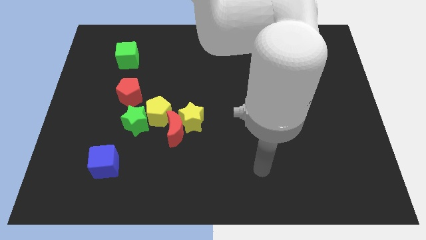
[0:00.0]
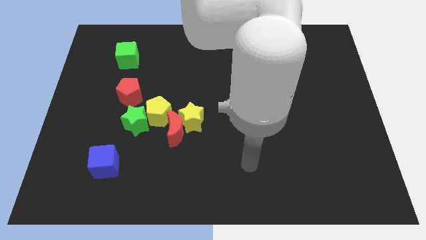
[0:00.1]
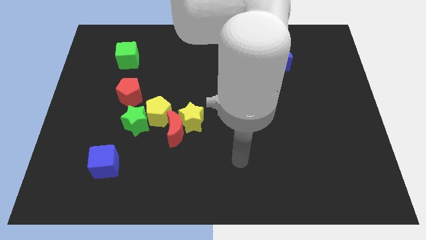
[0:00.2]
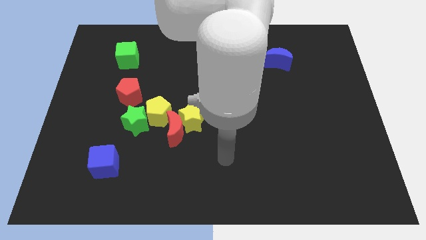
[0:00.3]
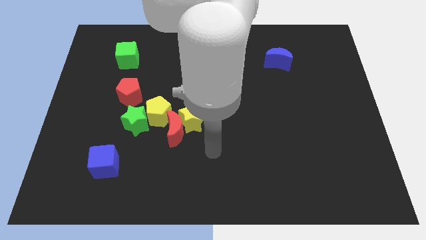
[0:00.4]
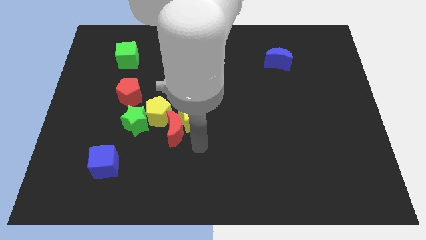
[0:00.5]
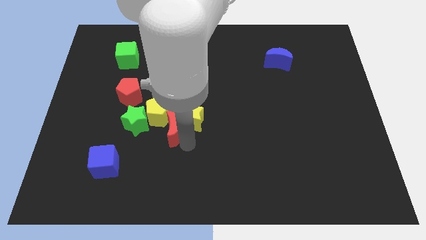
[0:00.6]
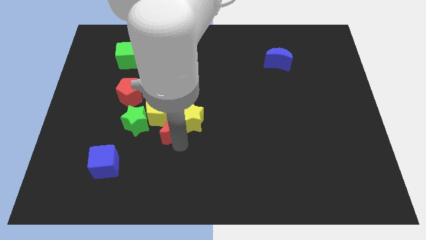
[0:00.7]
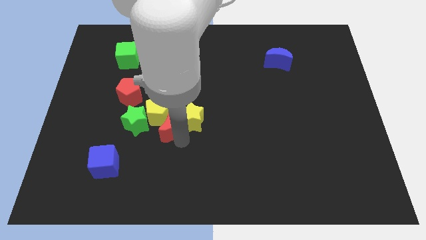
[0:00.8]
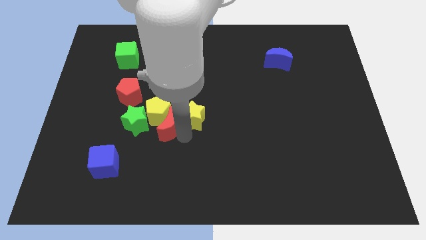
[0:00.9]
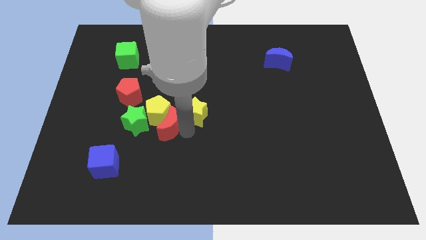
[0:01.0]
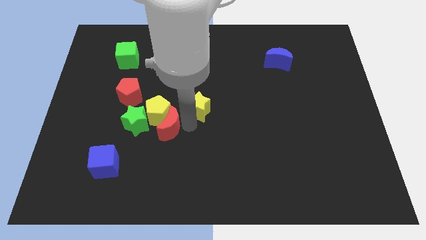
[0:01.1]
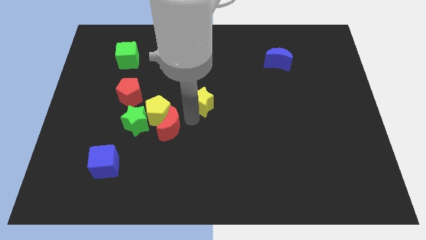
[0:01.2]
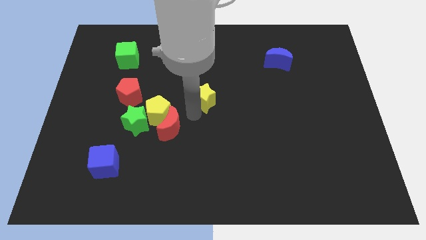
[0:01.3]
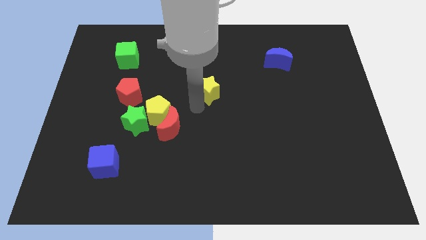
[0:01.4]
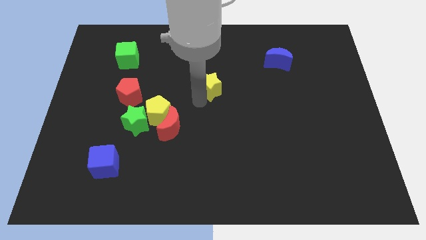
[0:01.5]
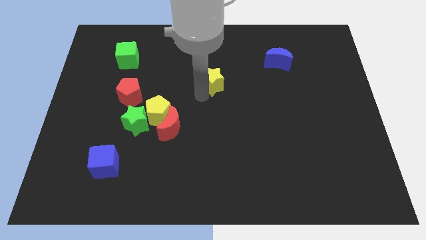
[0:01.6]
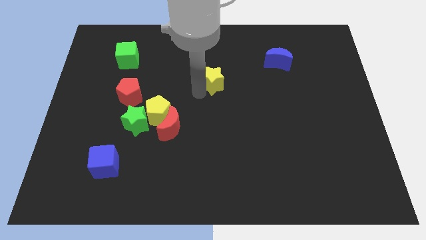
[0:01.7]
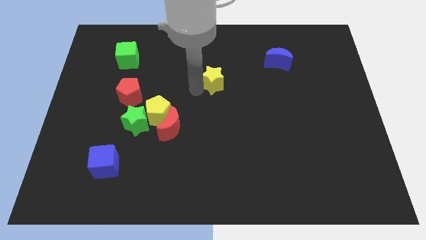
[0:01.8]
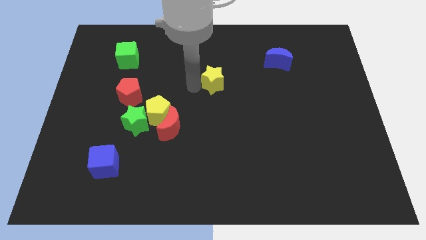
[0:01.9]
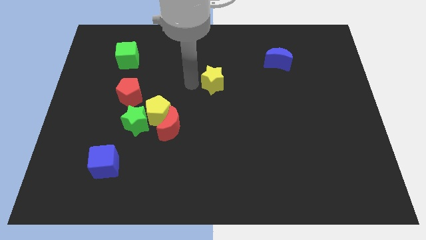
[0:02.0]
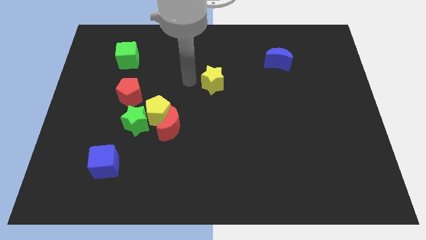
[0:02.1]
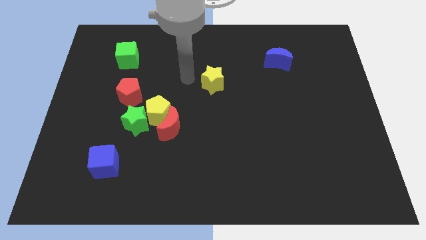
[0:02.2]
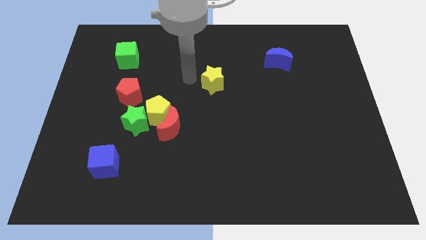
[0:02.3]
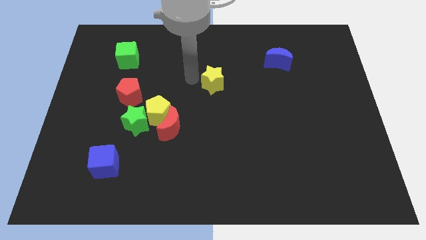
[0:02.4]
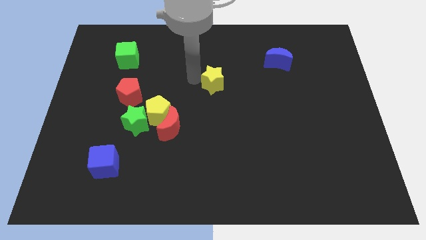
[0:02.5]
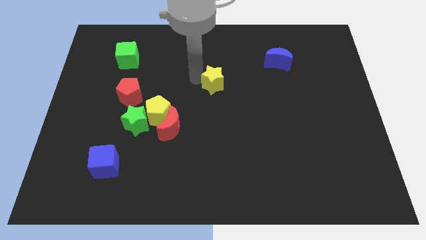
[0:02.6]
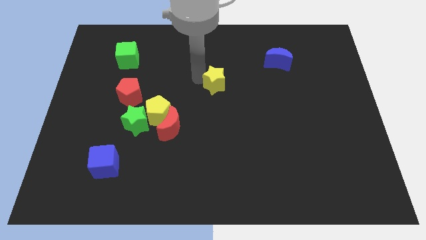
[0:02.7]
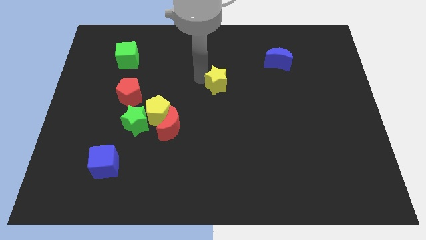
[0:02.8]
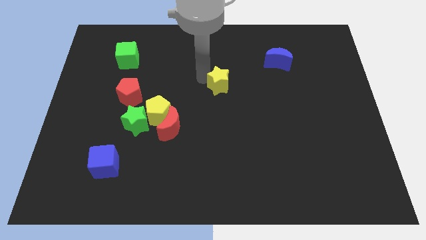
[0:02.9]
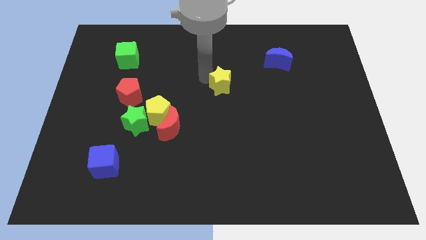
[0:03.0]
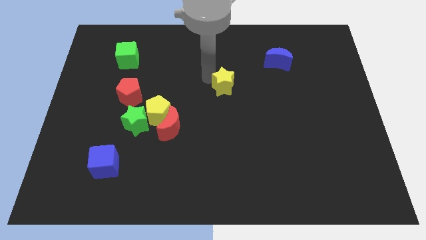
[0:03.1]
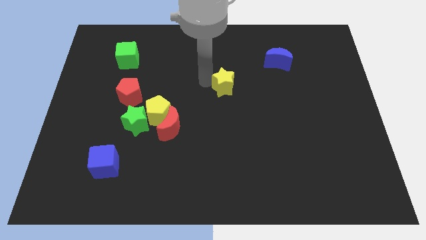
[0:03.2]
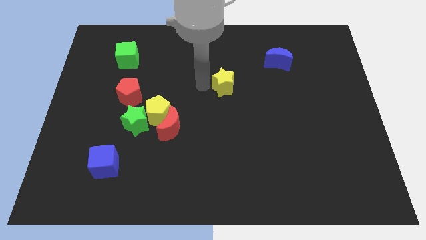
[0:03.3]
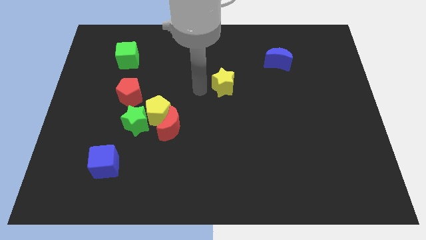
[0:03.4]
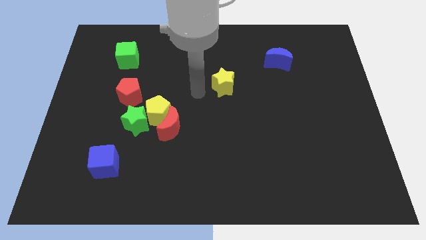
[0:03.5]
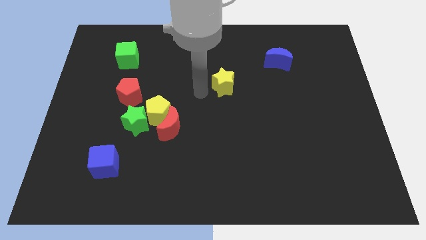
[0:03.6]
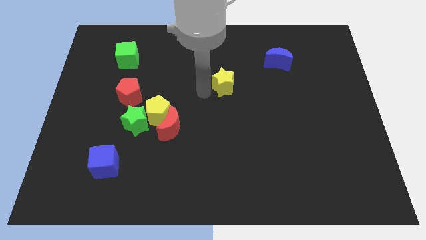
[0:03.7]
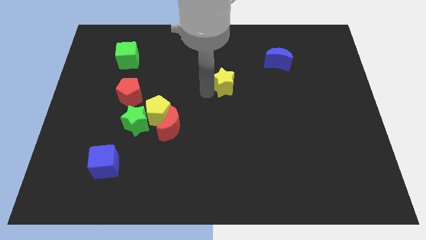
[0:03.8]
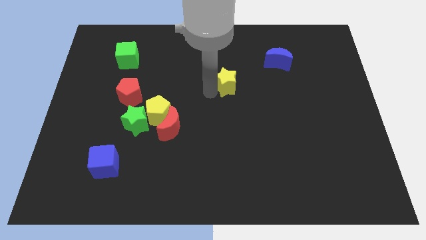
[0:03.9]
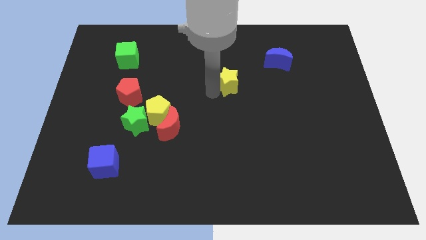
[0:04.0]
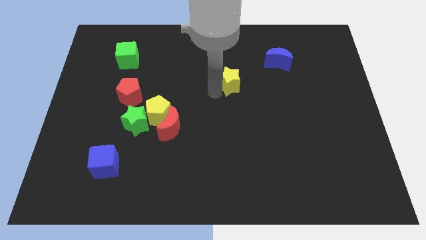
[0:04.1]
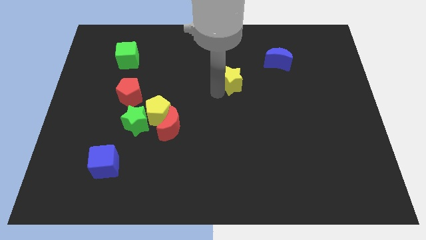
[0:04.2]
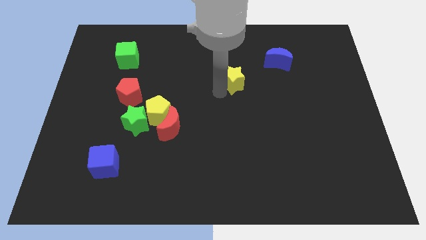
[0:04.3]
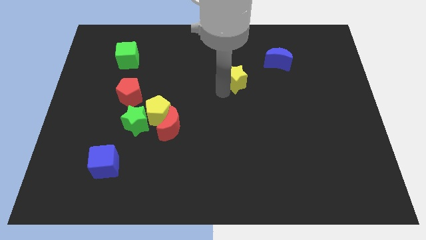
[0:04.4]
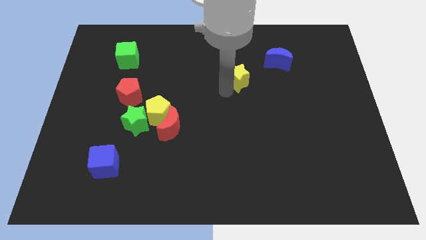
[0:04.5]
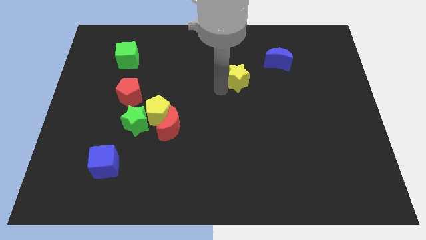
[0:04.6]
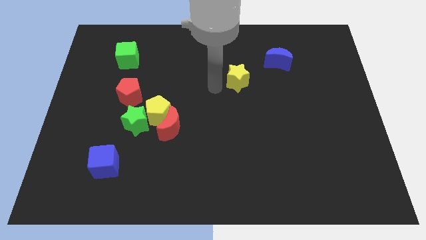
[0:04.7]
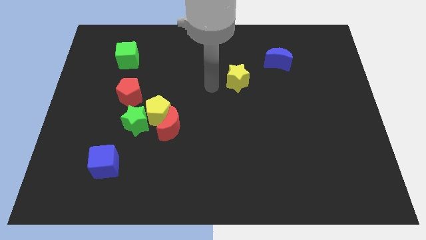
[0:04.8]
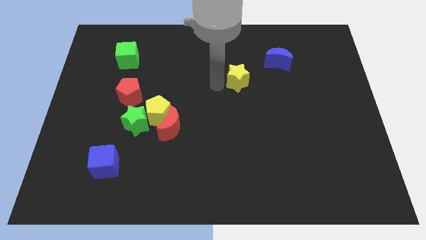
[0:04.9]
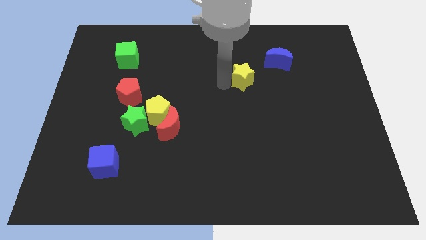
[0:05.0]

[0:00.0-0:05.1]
put the yellow star to the bottom left of the blue moon

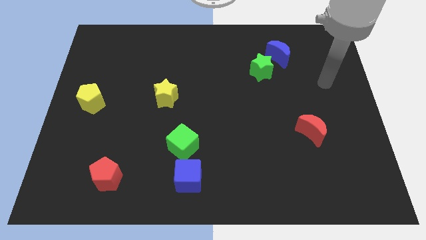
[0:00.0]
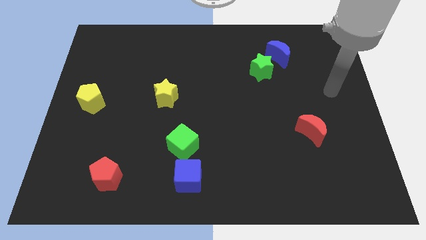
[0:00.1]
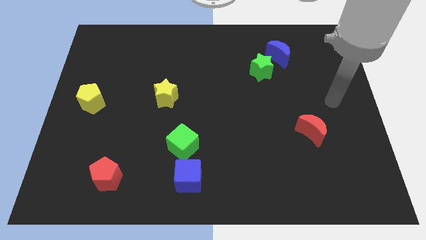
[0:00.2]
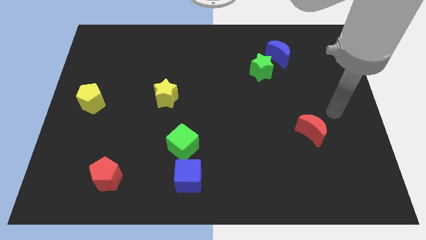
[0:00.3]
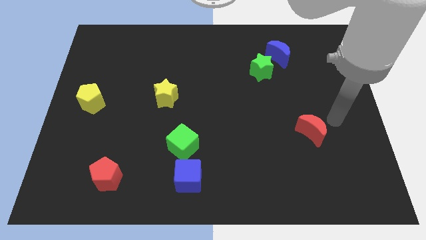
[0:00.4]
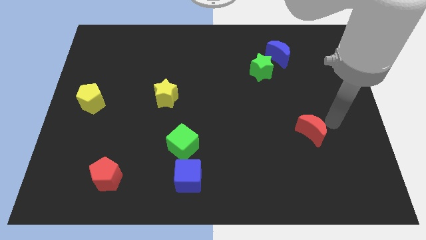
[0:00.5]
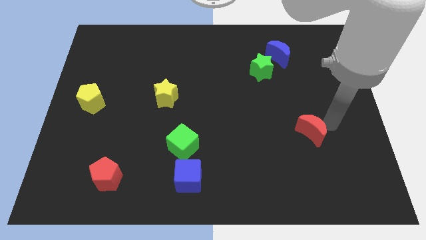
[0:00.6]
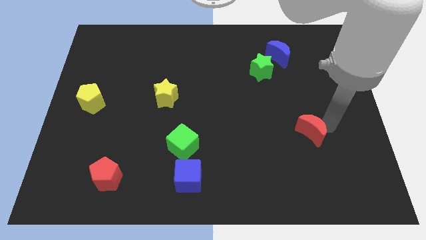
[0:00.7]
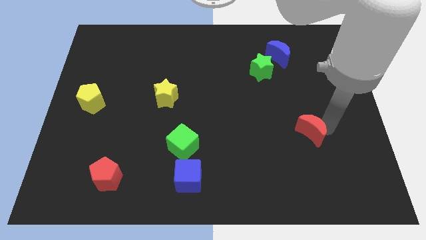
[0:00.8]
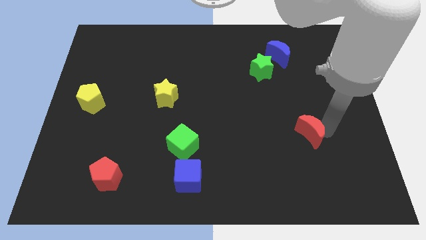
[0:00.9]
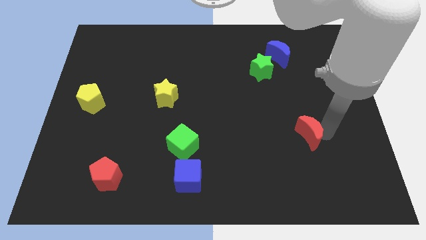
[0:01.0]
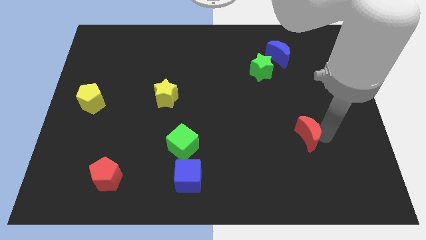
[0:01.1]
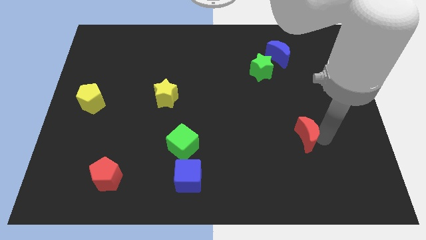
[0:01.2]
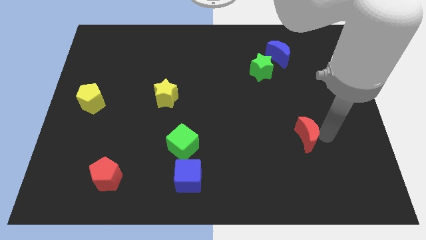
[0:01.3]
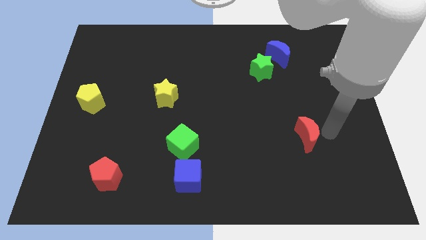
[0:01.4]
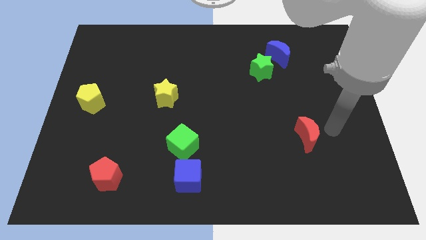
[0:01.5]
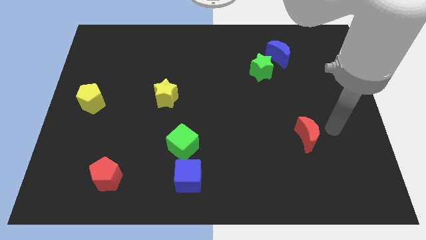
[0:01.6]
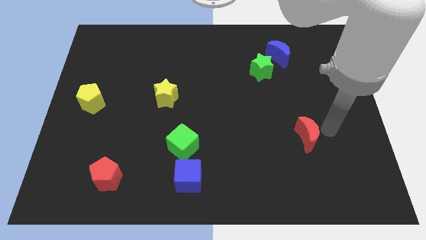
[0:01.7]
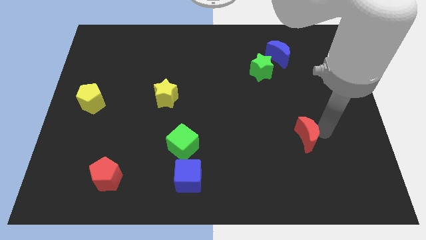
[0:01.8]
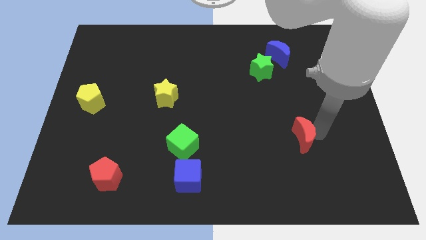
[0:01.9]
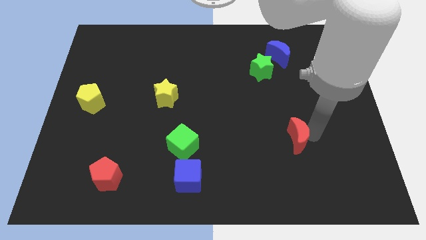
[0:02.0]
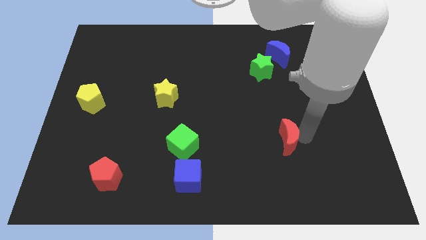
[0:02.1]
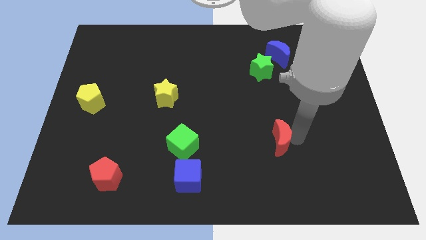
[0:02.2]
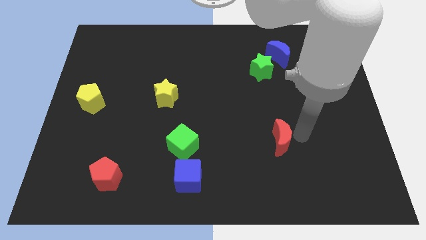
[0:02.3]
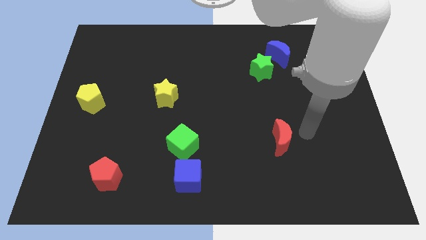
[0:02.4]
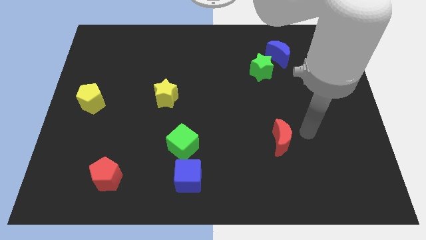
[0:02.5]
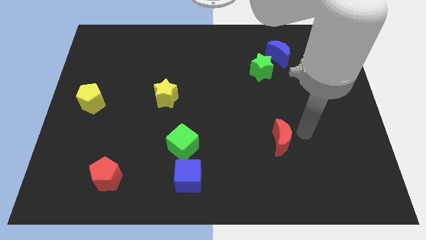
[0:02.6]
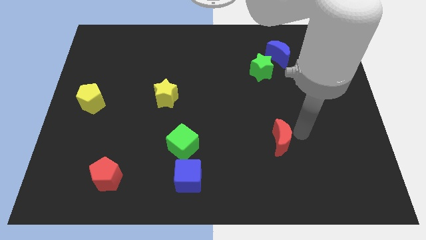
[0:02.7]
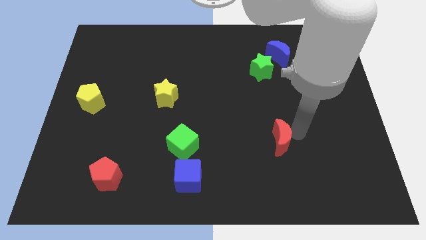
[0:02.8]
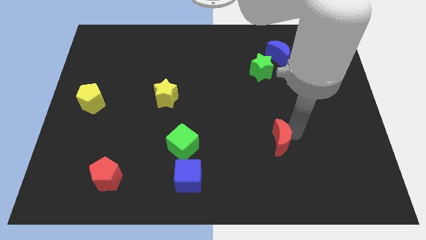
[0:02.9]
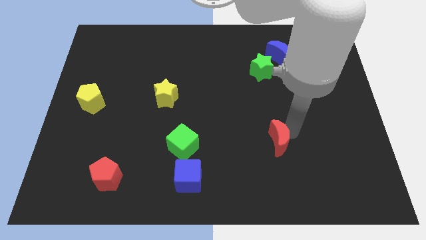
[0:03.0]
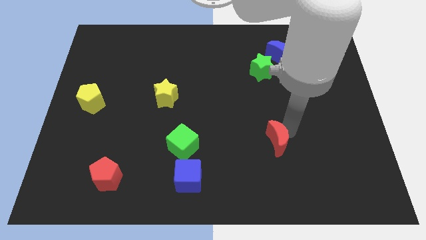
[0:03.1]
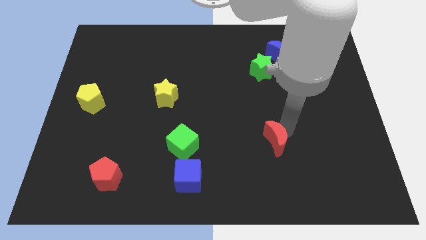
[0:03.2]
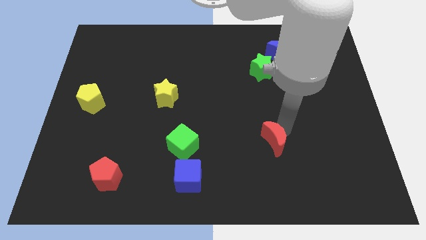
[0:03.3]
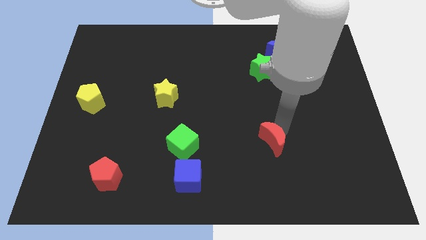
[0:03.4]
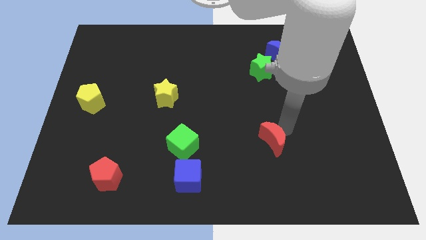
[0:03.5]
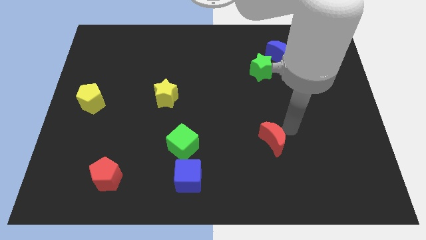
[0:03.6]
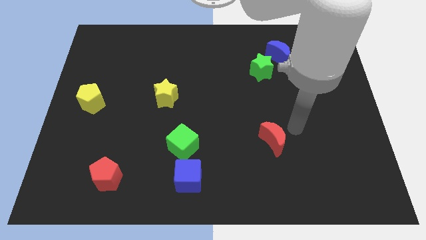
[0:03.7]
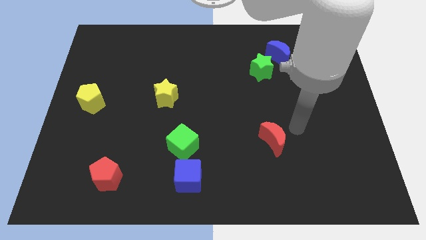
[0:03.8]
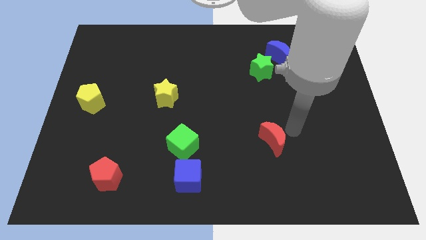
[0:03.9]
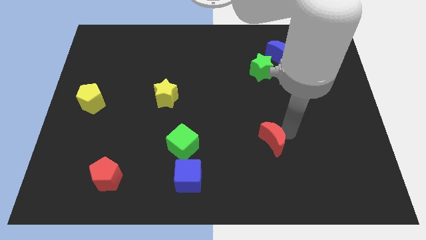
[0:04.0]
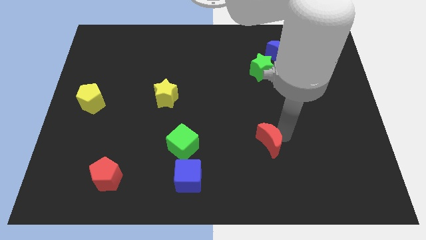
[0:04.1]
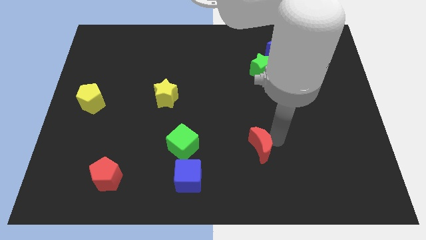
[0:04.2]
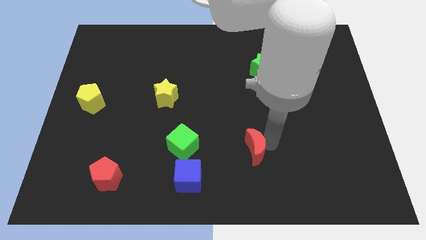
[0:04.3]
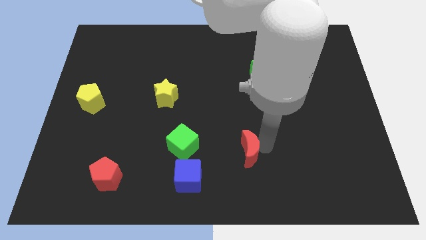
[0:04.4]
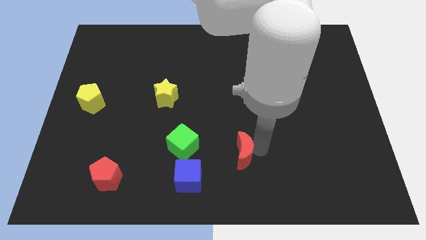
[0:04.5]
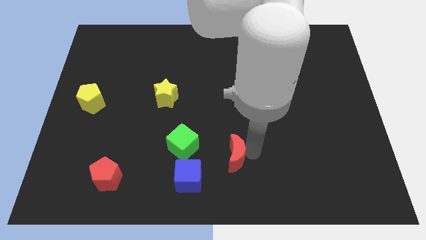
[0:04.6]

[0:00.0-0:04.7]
move the red moon diagonally up and to the right of the blue cube
